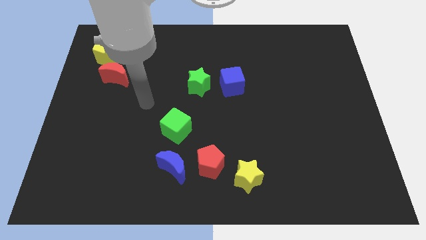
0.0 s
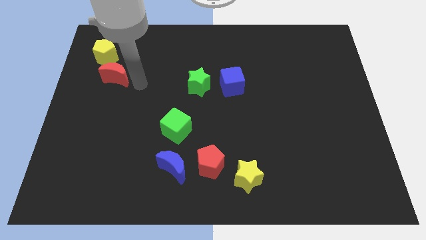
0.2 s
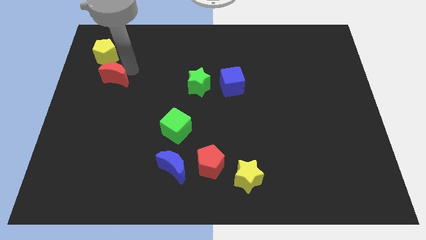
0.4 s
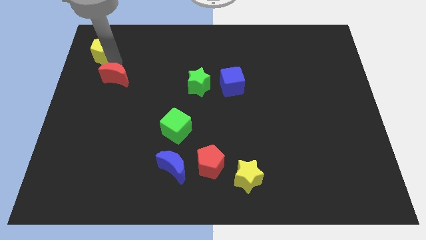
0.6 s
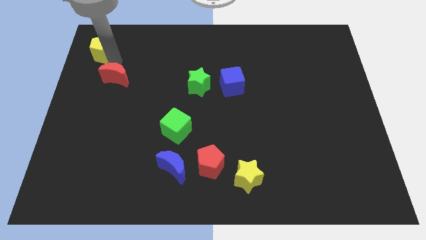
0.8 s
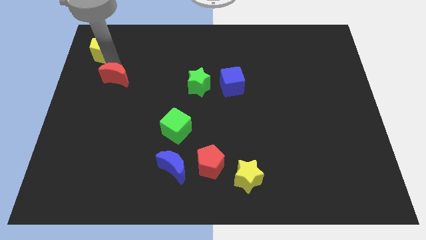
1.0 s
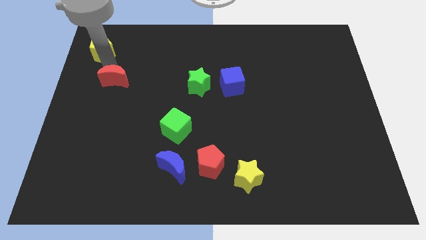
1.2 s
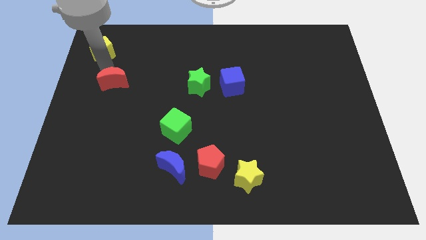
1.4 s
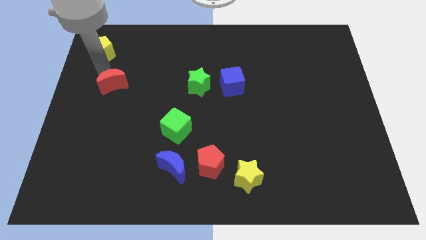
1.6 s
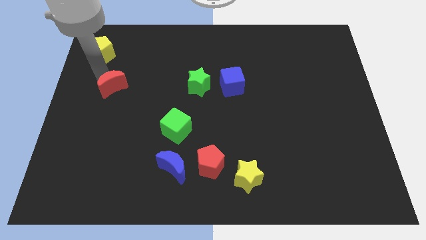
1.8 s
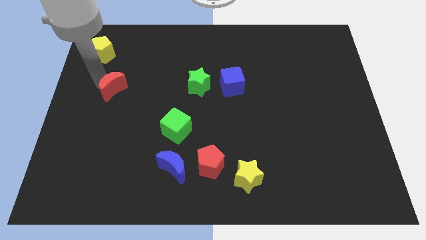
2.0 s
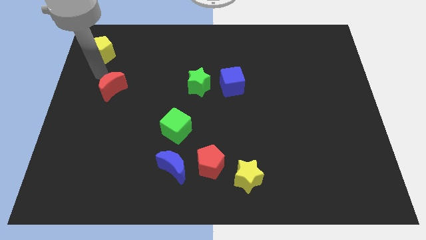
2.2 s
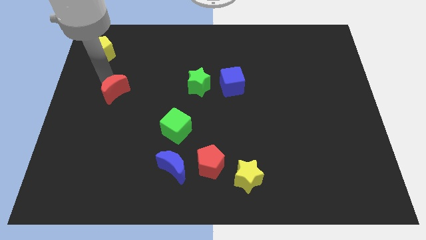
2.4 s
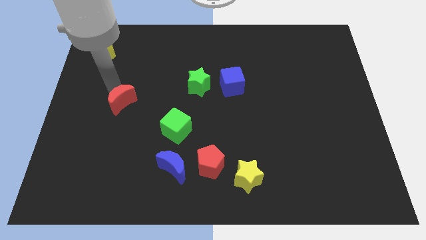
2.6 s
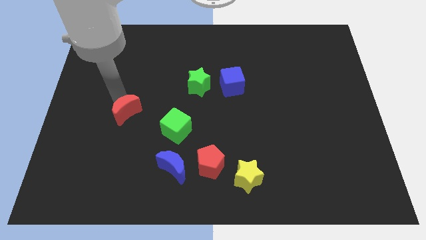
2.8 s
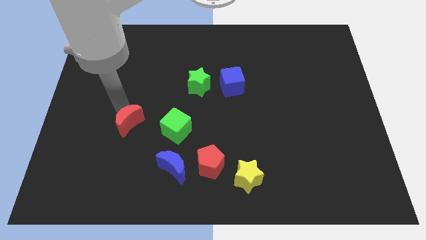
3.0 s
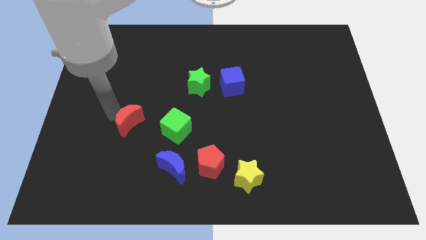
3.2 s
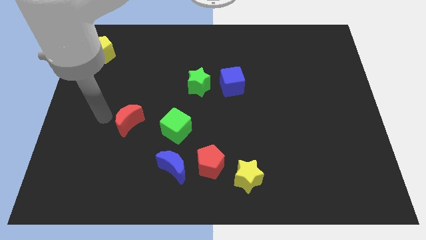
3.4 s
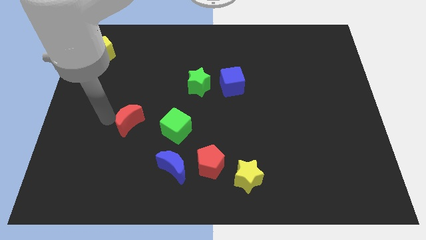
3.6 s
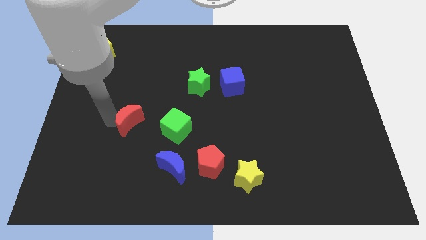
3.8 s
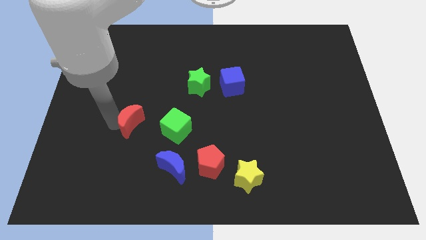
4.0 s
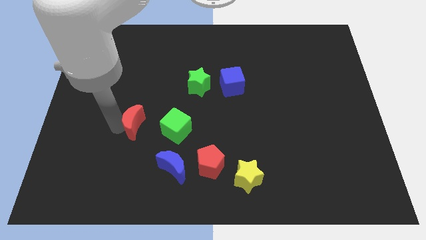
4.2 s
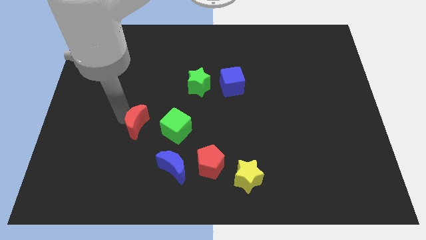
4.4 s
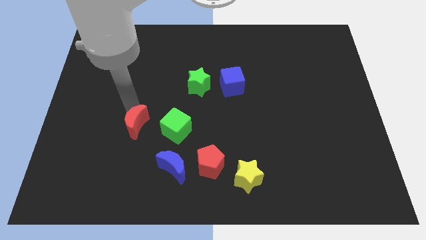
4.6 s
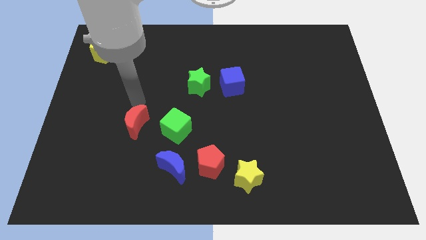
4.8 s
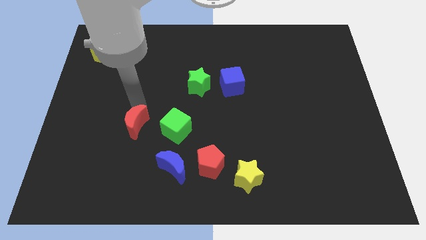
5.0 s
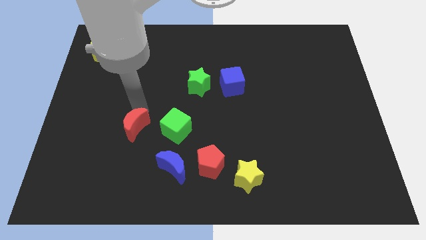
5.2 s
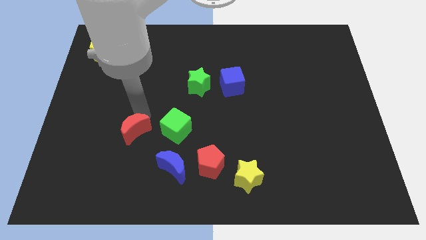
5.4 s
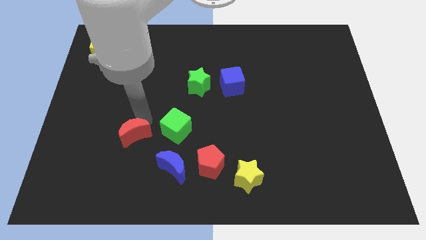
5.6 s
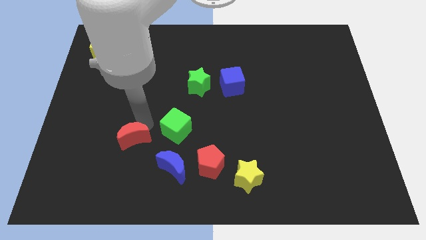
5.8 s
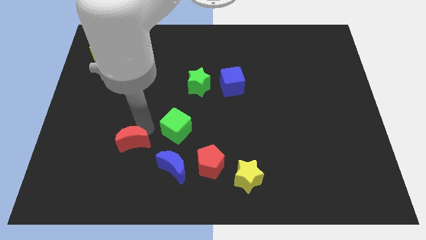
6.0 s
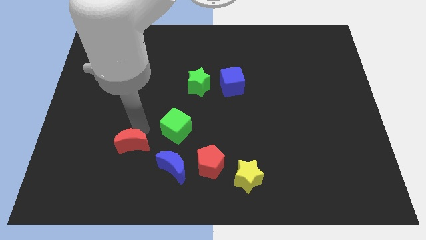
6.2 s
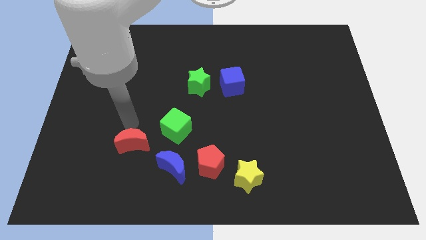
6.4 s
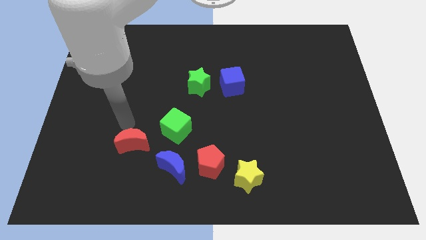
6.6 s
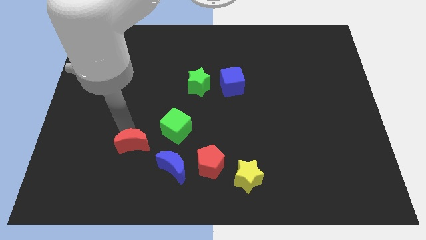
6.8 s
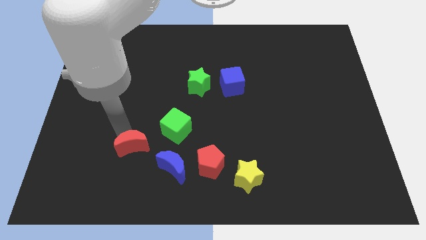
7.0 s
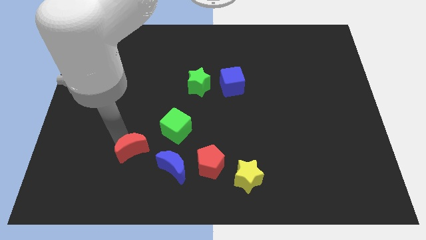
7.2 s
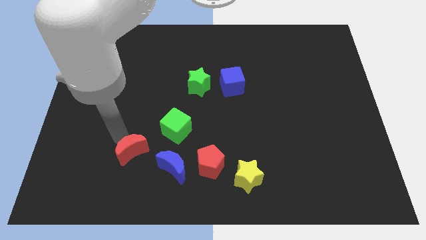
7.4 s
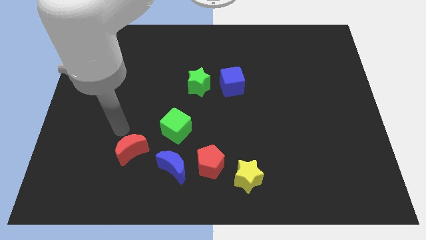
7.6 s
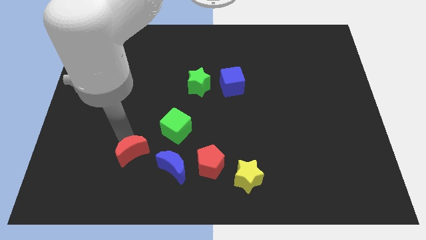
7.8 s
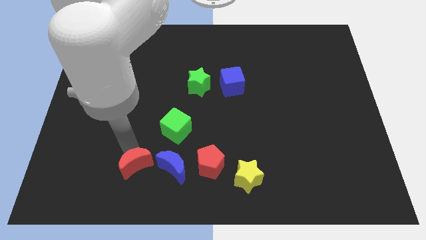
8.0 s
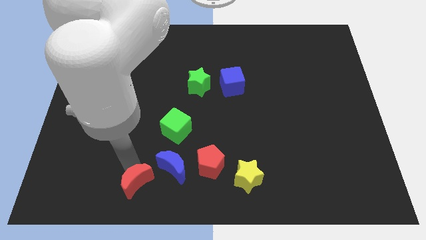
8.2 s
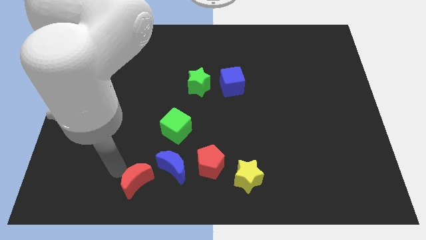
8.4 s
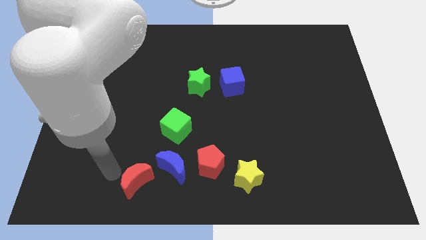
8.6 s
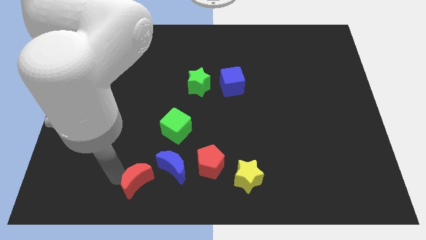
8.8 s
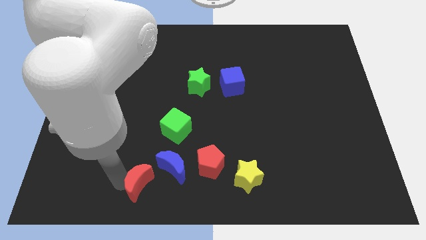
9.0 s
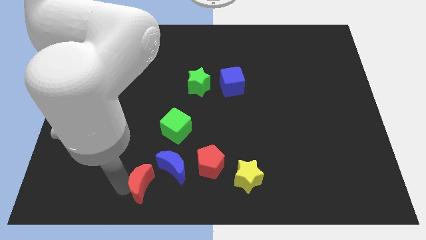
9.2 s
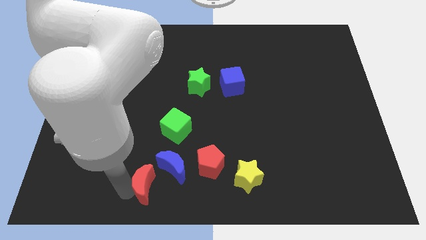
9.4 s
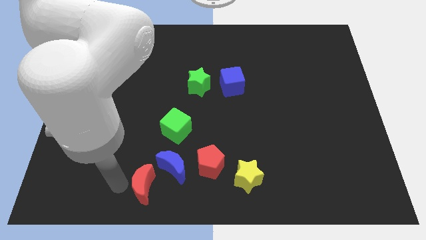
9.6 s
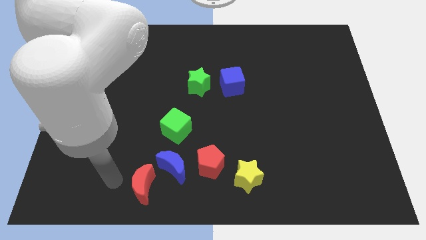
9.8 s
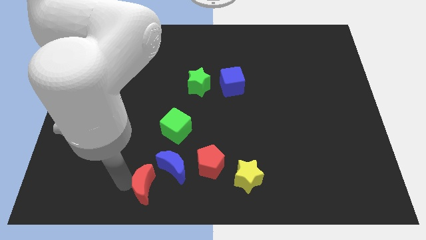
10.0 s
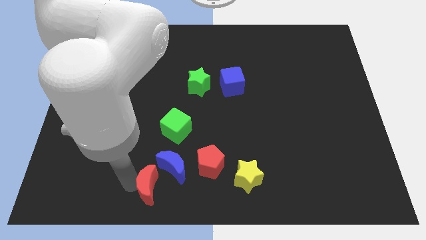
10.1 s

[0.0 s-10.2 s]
move the red moon to the bottom side

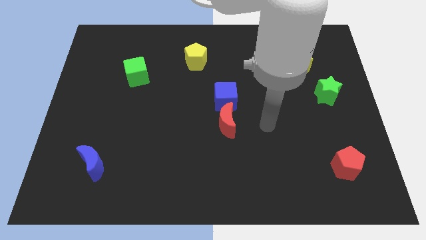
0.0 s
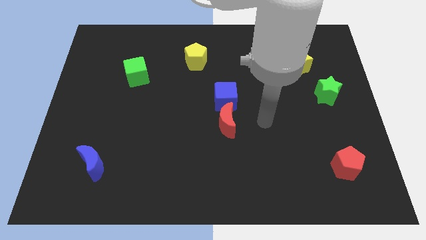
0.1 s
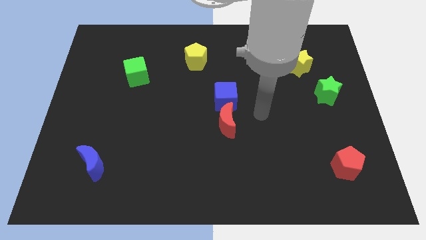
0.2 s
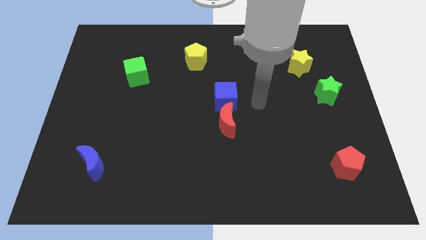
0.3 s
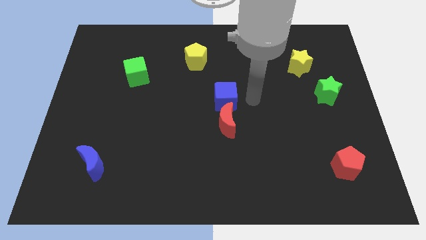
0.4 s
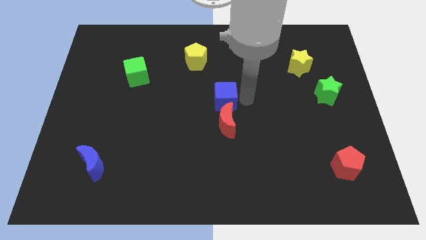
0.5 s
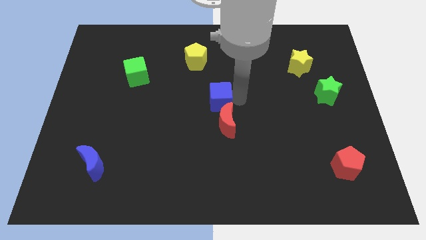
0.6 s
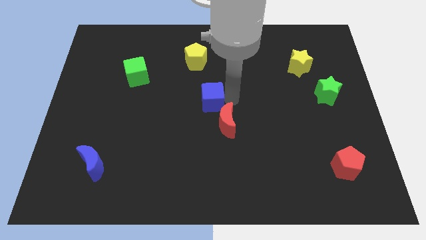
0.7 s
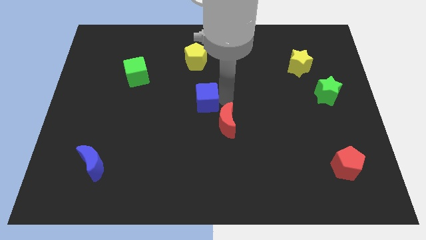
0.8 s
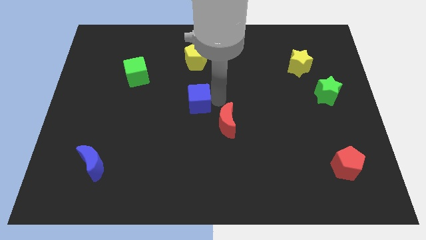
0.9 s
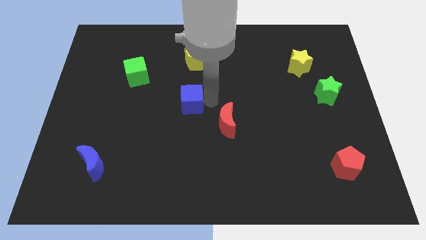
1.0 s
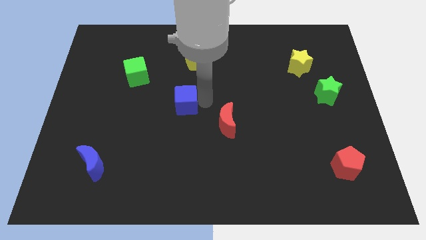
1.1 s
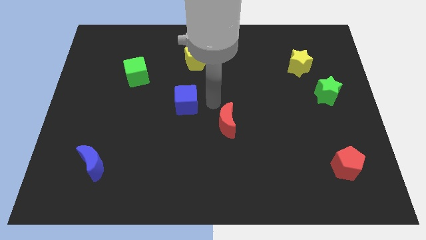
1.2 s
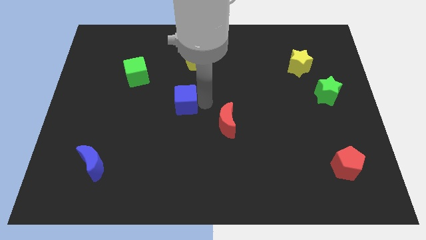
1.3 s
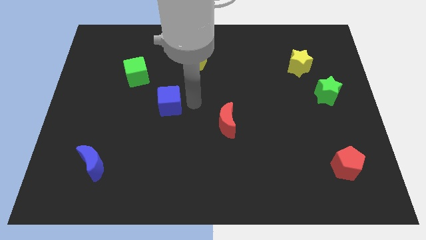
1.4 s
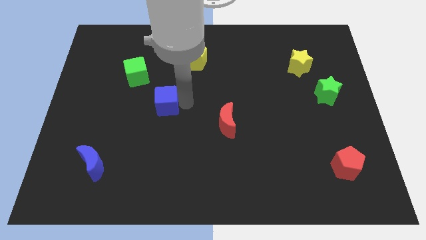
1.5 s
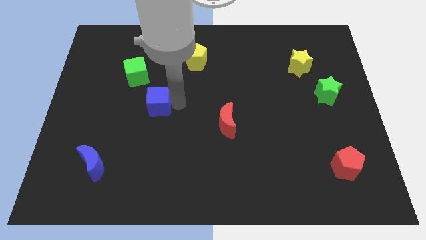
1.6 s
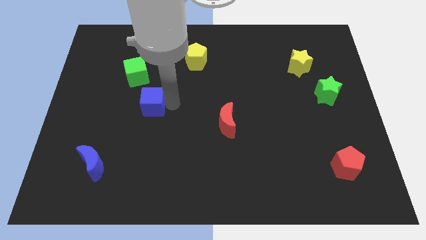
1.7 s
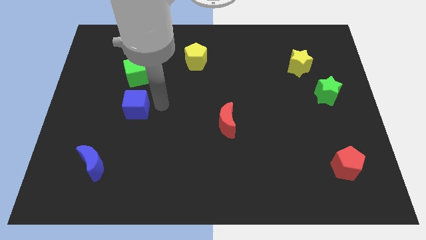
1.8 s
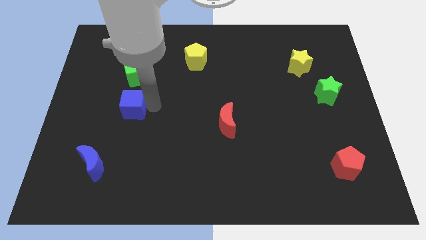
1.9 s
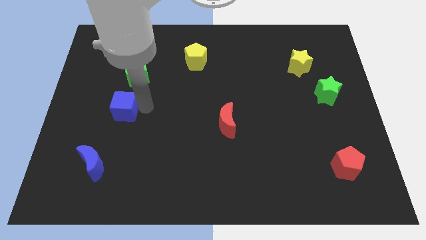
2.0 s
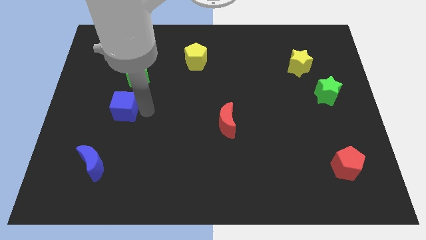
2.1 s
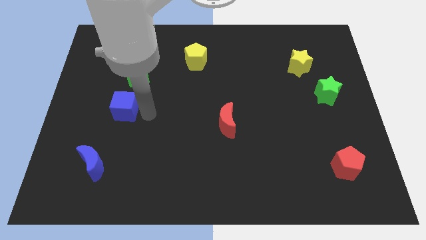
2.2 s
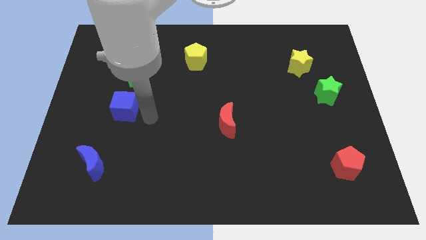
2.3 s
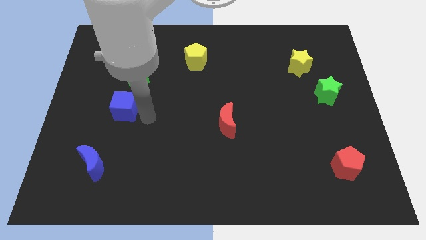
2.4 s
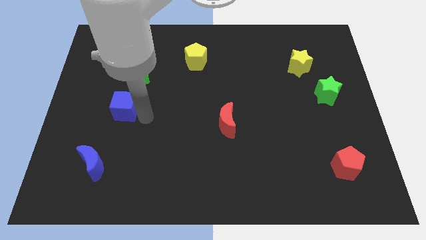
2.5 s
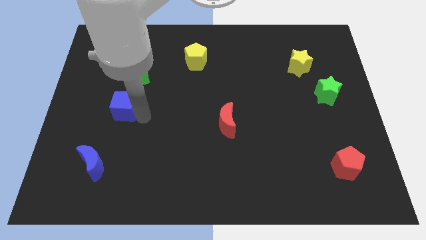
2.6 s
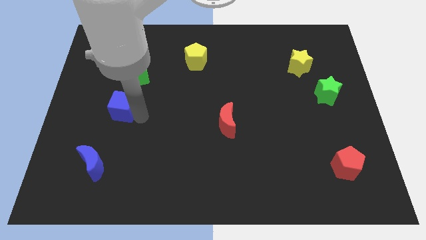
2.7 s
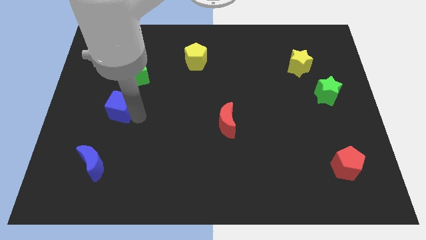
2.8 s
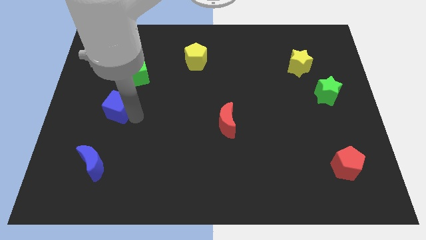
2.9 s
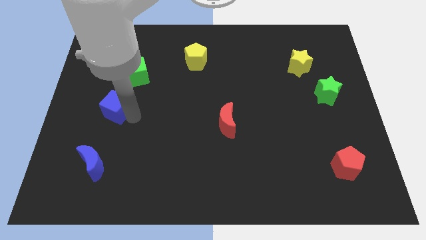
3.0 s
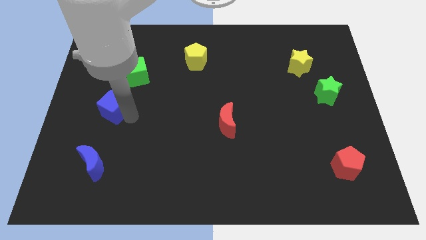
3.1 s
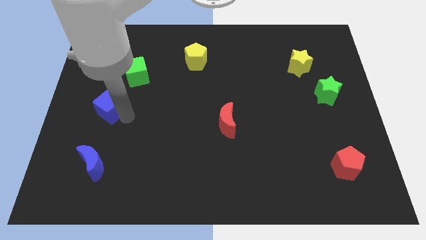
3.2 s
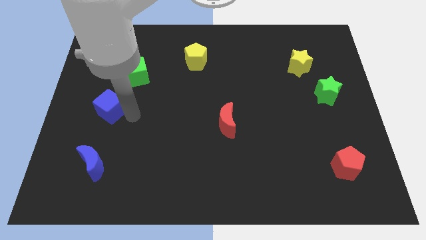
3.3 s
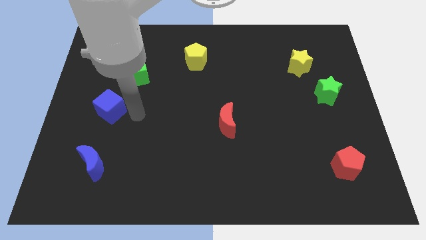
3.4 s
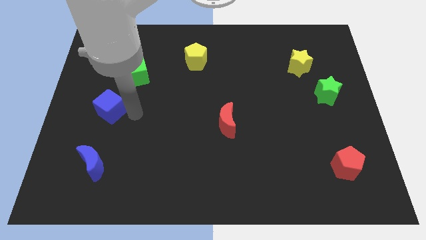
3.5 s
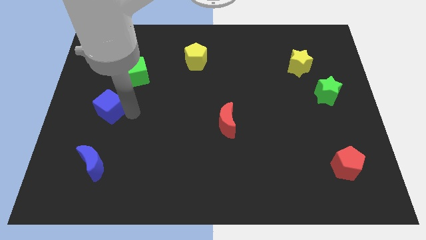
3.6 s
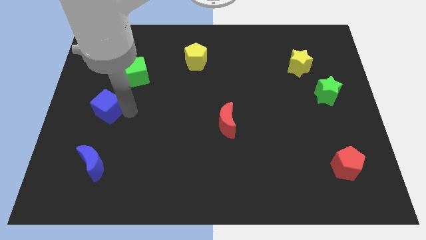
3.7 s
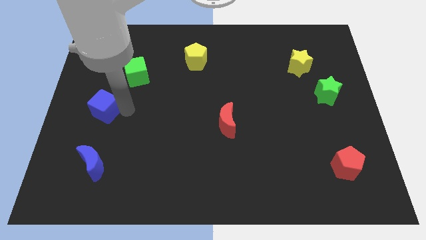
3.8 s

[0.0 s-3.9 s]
push the blue cube to the center left
